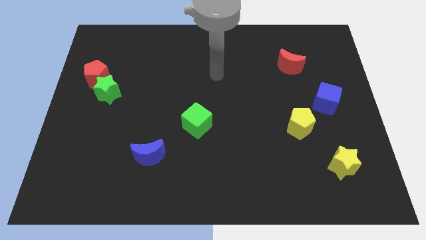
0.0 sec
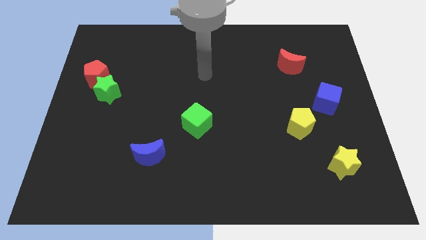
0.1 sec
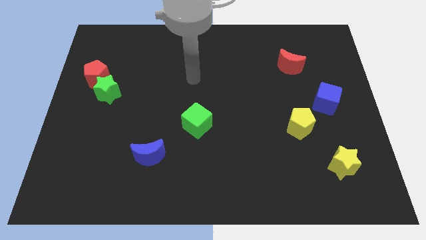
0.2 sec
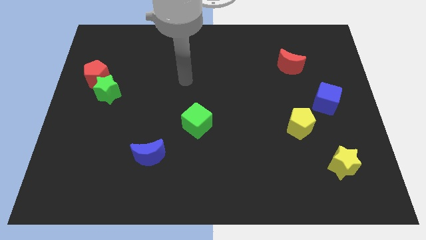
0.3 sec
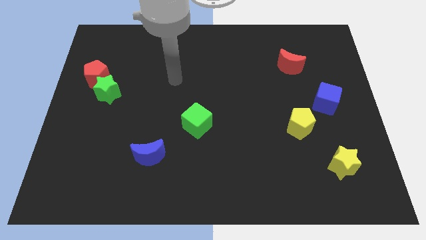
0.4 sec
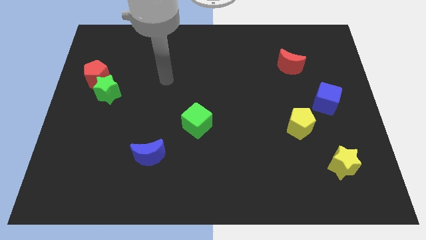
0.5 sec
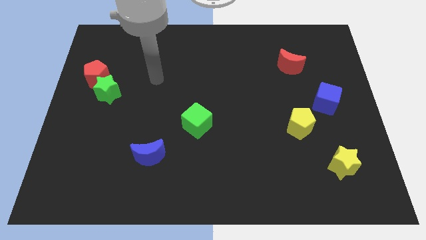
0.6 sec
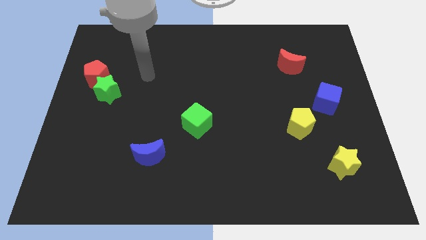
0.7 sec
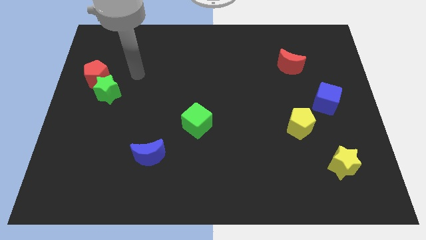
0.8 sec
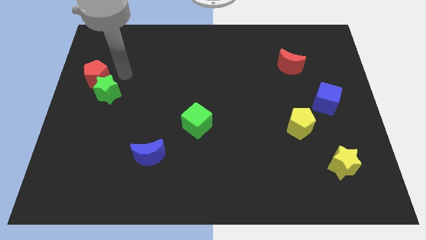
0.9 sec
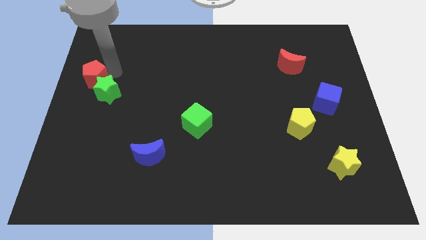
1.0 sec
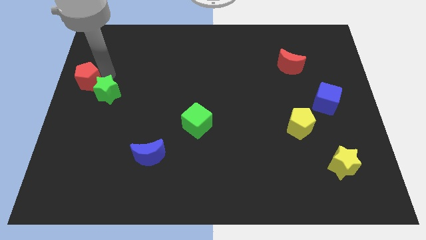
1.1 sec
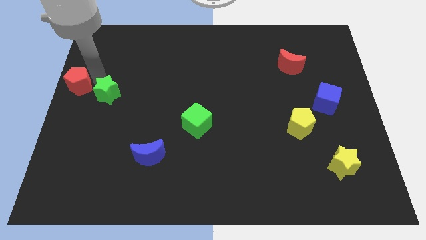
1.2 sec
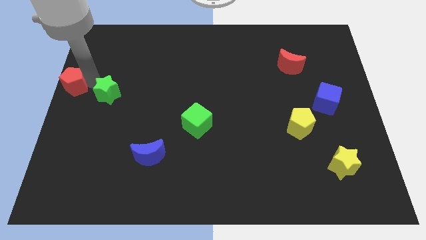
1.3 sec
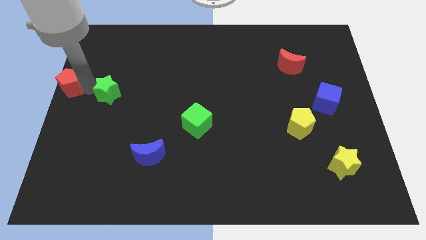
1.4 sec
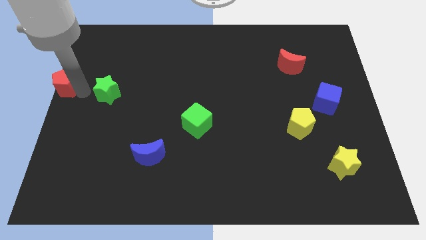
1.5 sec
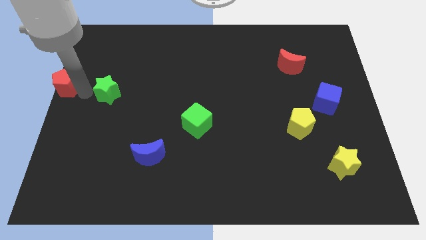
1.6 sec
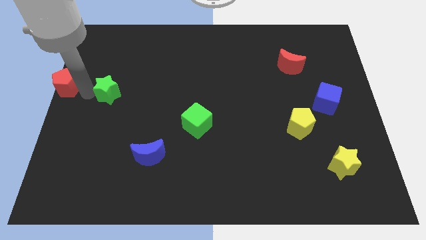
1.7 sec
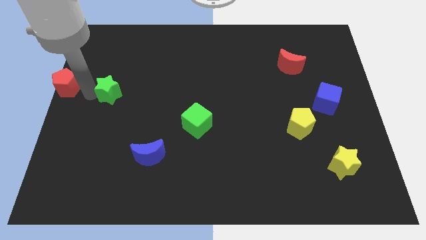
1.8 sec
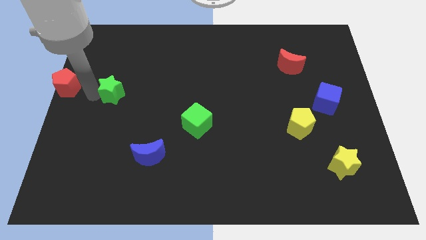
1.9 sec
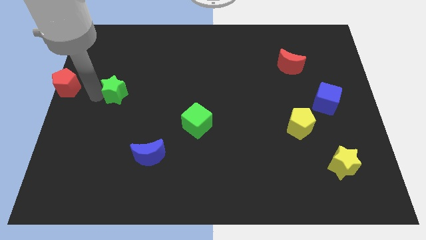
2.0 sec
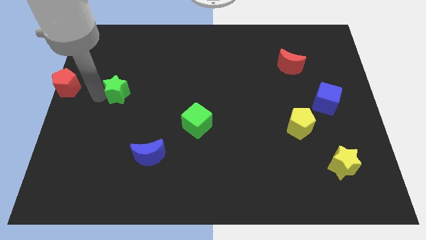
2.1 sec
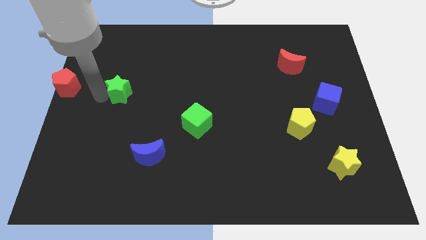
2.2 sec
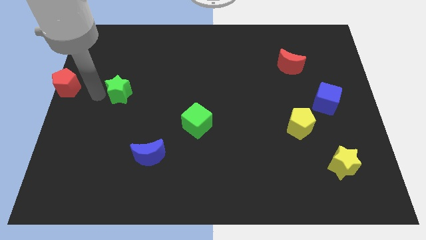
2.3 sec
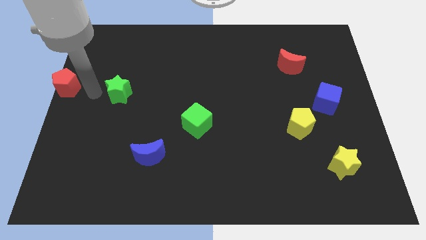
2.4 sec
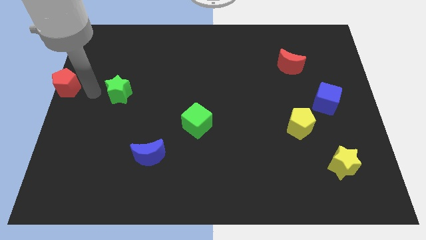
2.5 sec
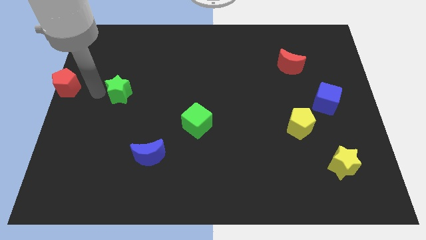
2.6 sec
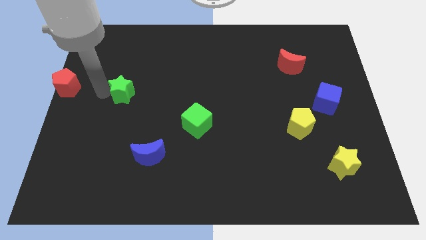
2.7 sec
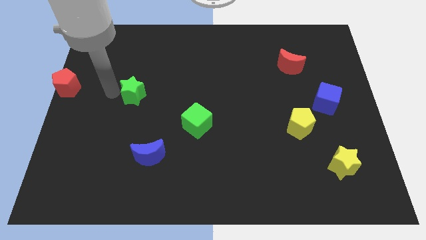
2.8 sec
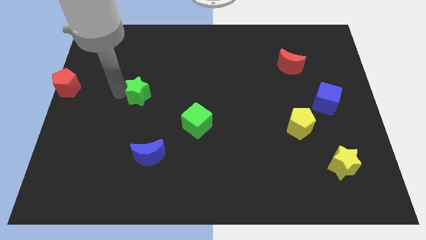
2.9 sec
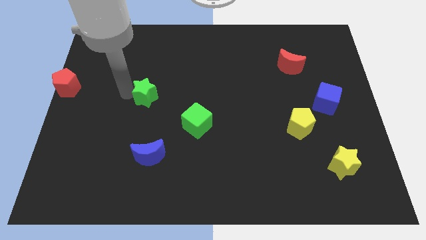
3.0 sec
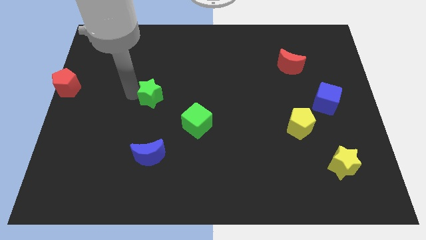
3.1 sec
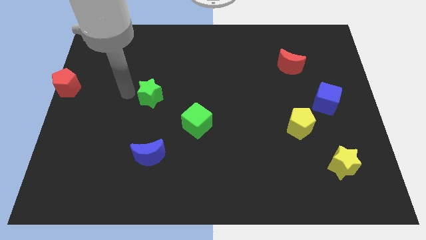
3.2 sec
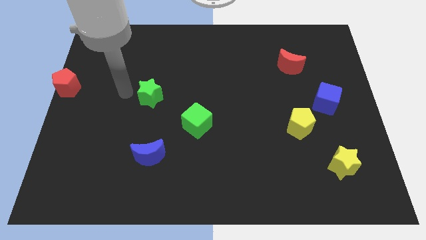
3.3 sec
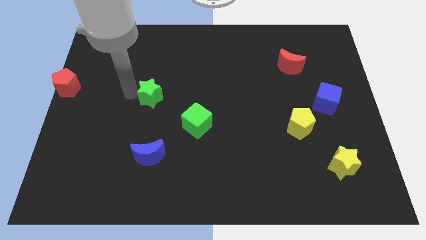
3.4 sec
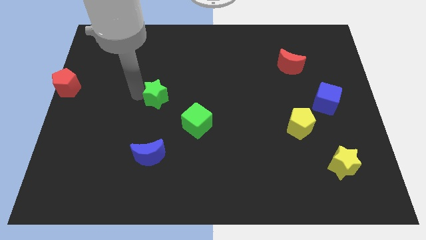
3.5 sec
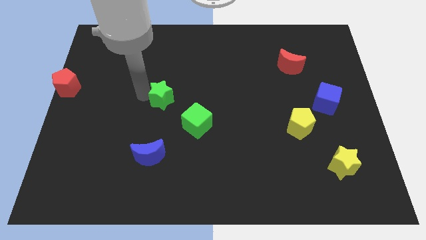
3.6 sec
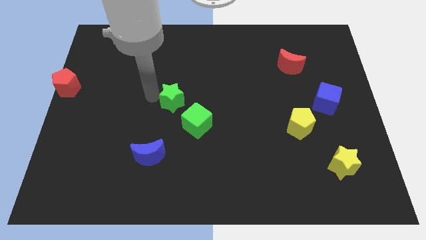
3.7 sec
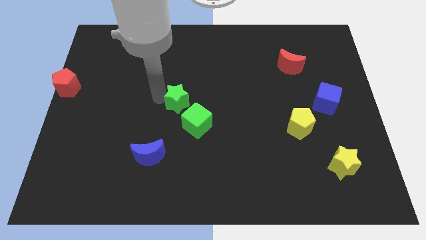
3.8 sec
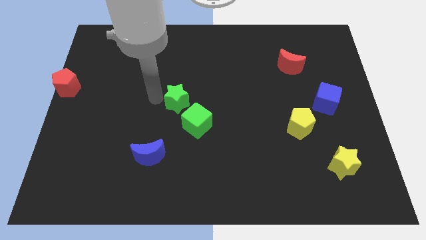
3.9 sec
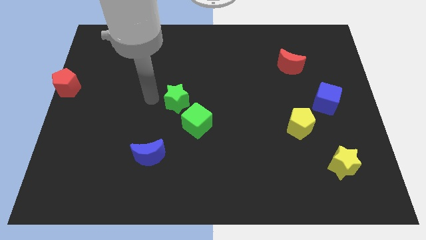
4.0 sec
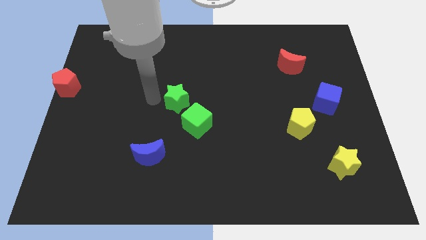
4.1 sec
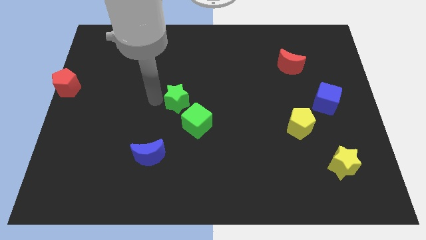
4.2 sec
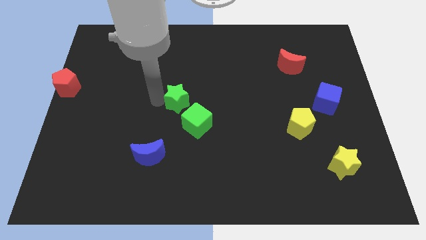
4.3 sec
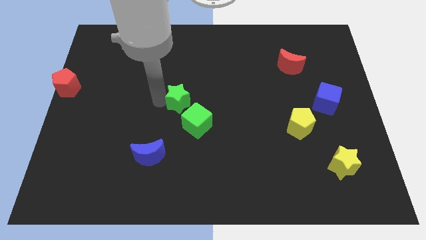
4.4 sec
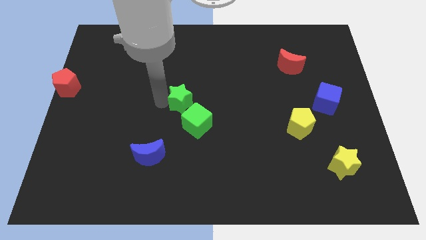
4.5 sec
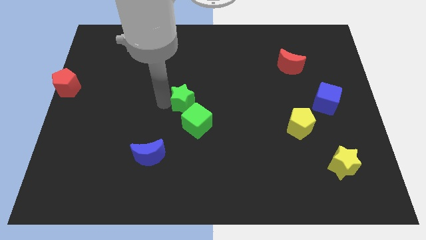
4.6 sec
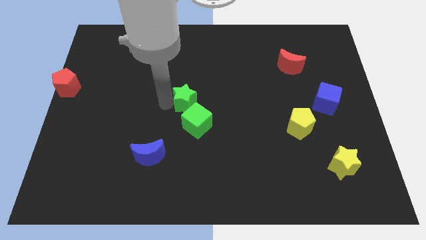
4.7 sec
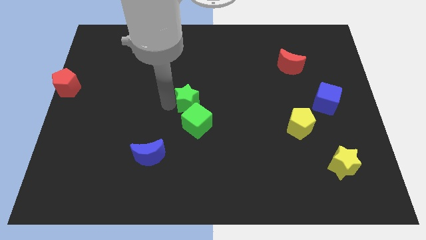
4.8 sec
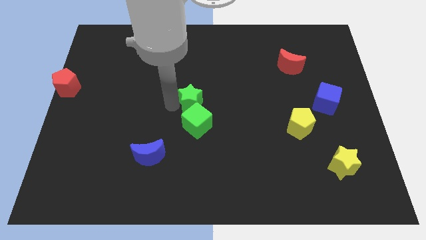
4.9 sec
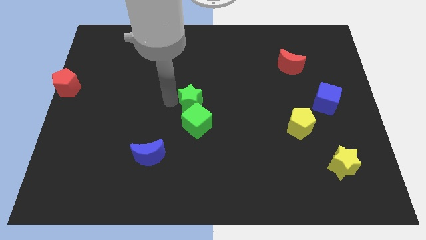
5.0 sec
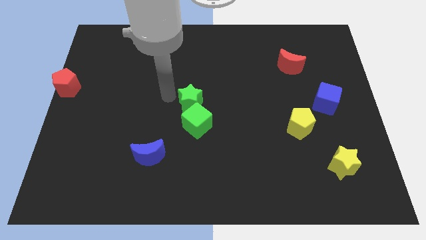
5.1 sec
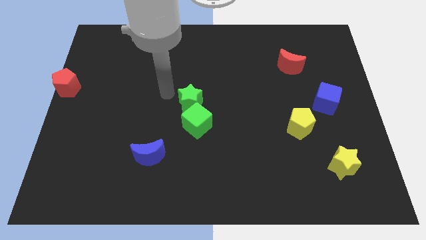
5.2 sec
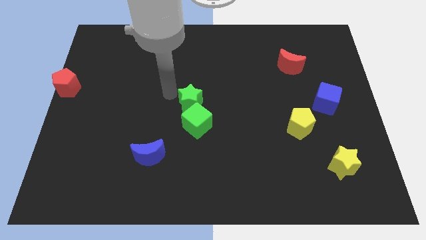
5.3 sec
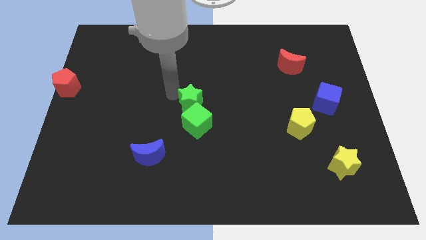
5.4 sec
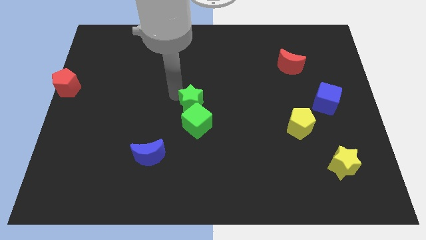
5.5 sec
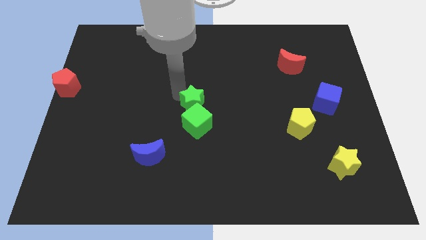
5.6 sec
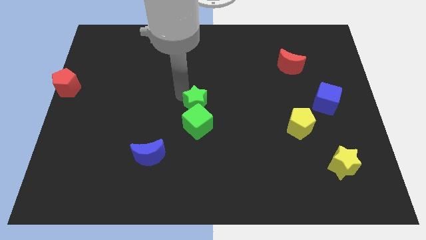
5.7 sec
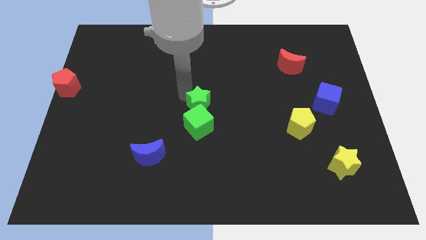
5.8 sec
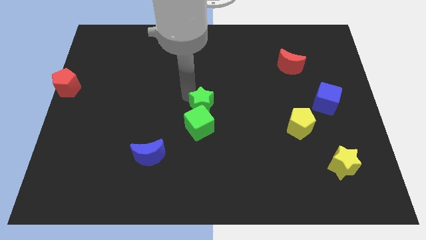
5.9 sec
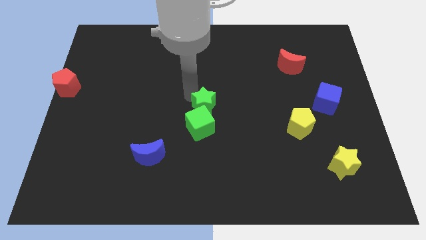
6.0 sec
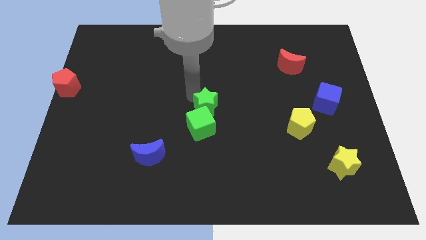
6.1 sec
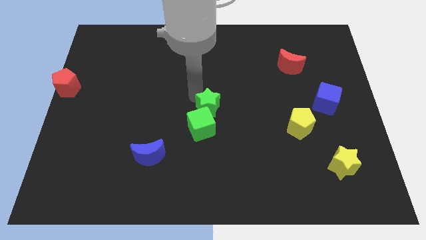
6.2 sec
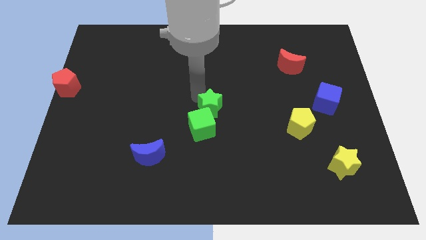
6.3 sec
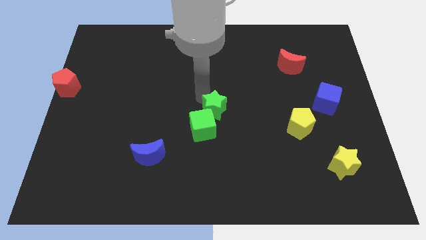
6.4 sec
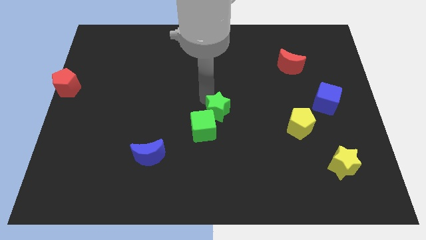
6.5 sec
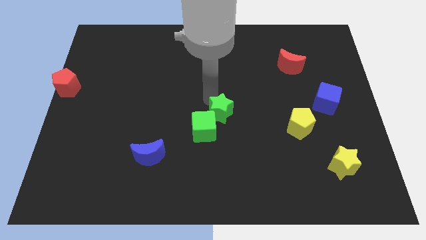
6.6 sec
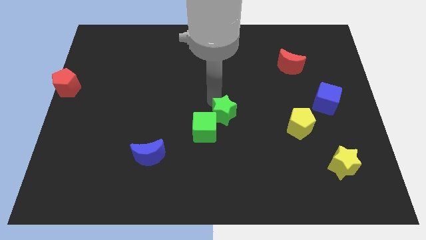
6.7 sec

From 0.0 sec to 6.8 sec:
push the green star just right of the green cube
